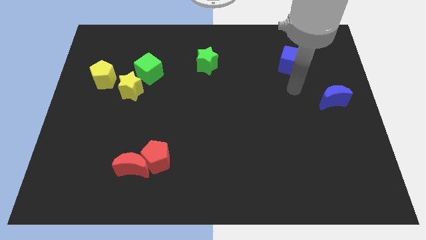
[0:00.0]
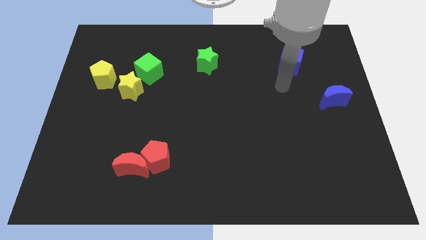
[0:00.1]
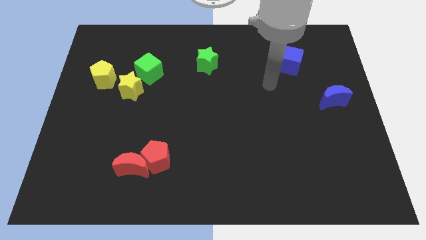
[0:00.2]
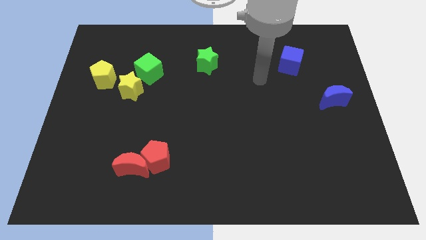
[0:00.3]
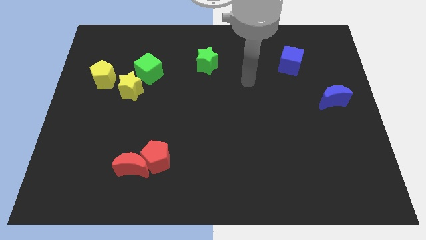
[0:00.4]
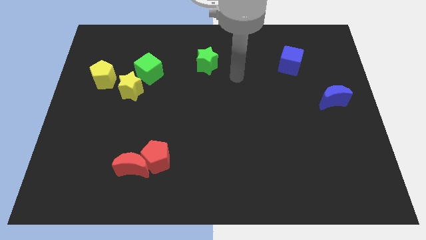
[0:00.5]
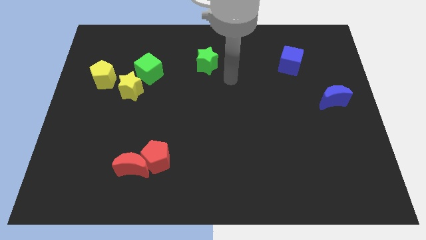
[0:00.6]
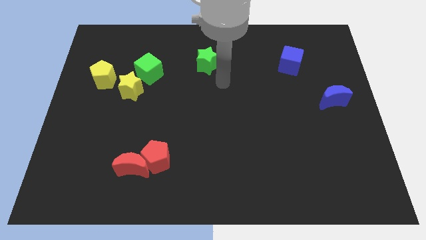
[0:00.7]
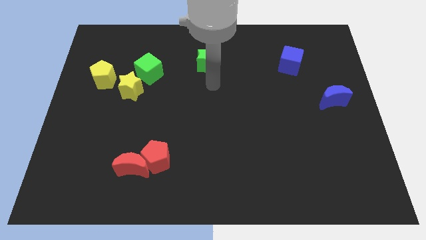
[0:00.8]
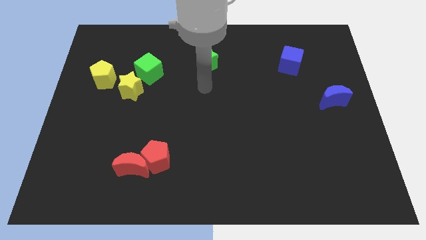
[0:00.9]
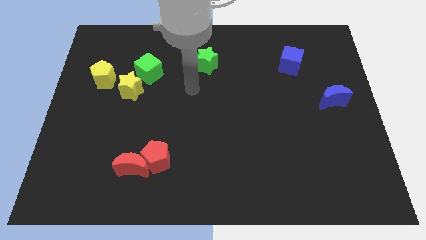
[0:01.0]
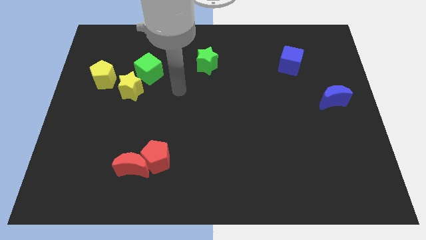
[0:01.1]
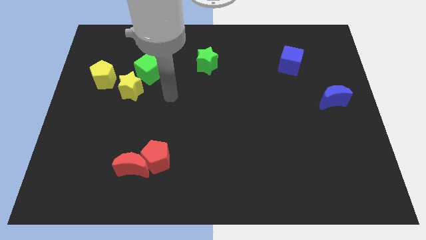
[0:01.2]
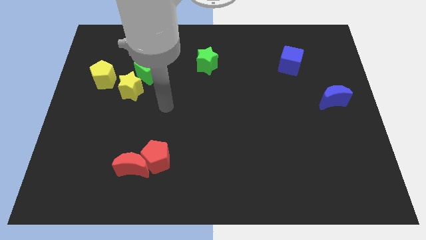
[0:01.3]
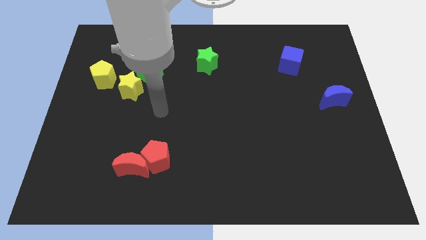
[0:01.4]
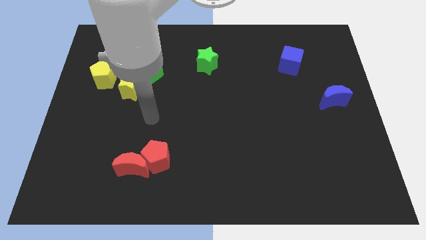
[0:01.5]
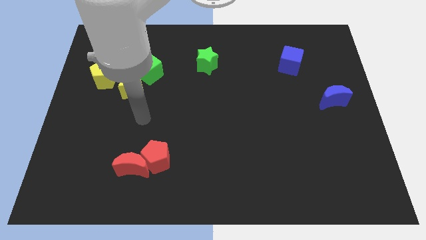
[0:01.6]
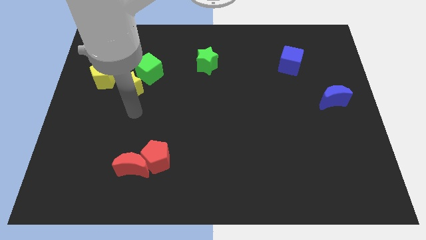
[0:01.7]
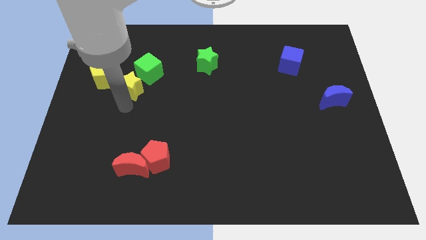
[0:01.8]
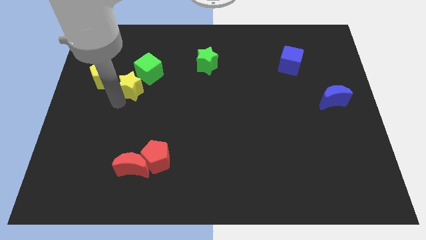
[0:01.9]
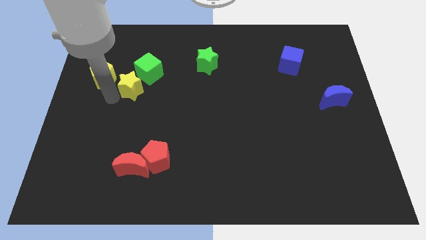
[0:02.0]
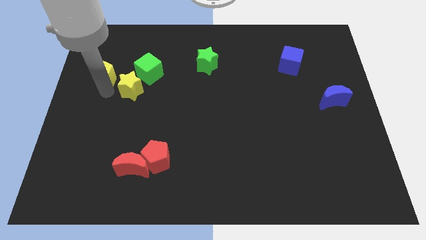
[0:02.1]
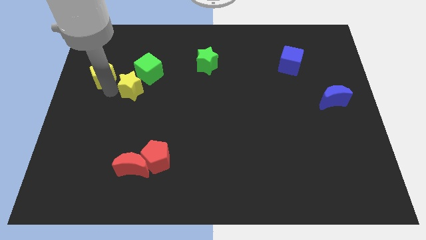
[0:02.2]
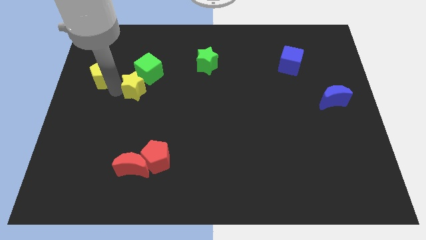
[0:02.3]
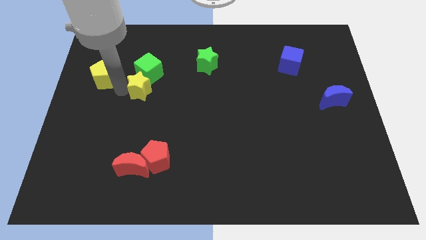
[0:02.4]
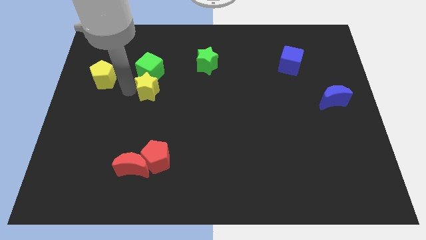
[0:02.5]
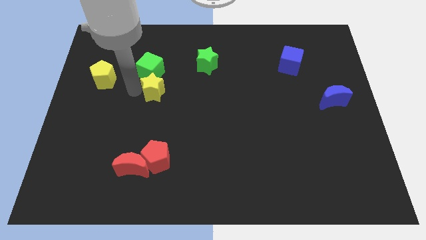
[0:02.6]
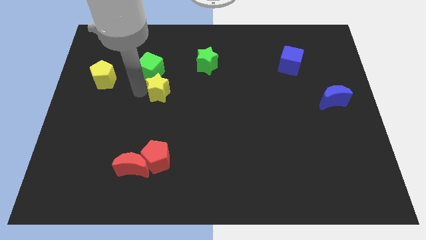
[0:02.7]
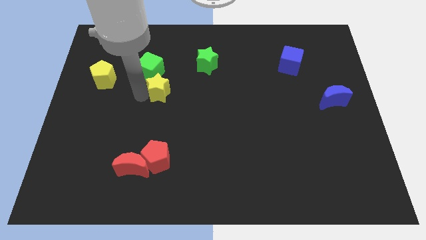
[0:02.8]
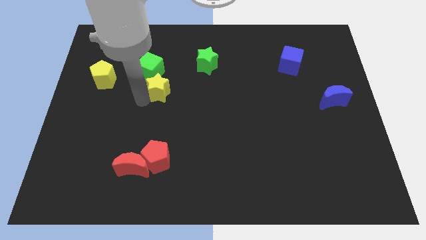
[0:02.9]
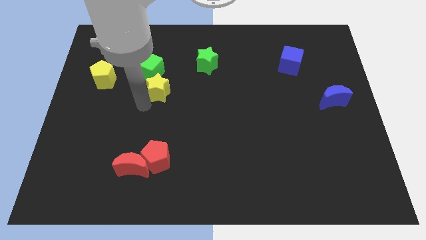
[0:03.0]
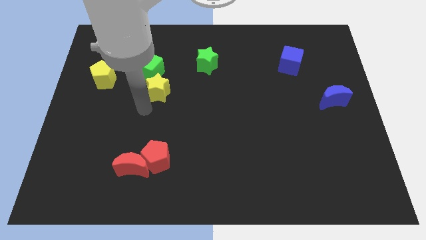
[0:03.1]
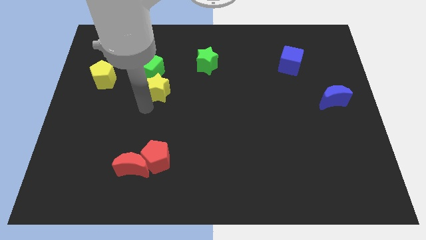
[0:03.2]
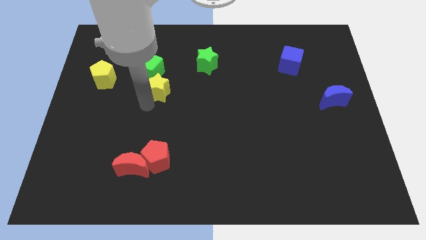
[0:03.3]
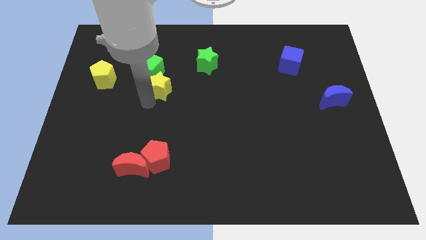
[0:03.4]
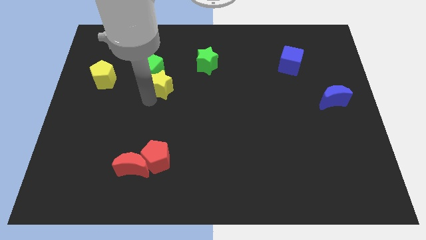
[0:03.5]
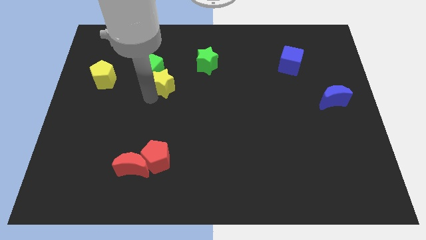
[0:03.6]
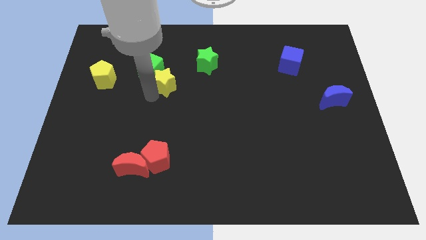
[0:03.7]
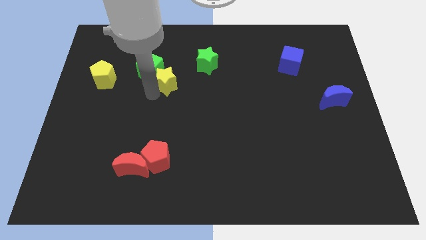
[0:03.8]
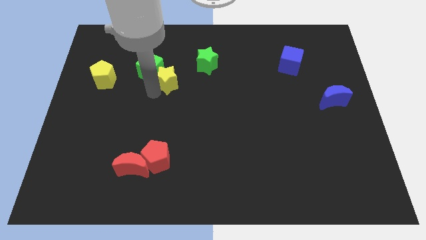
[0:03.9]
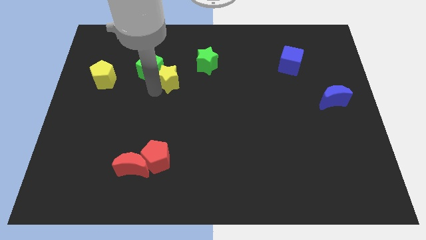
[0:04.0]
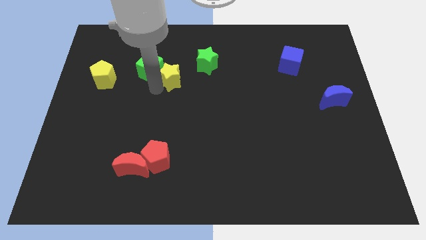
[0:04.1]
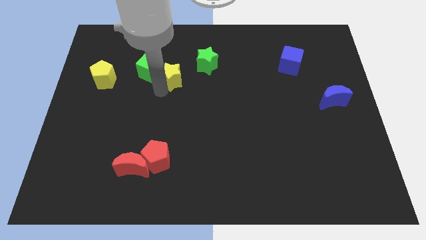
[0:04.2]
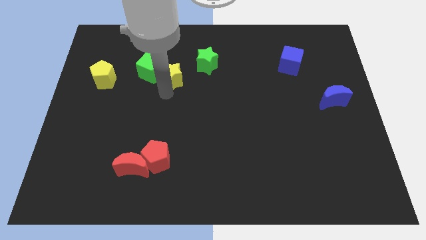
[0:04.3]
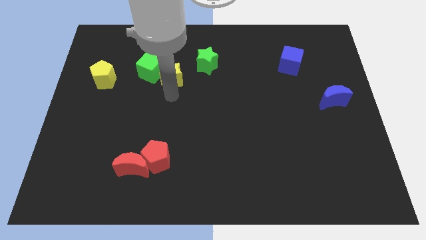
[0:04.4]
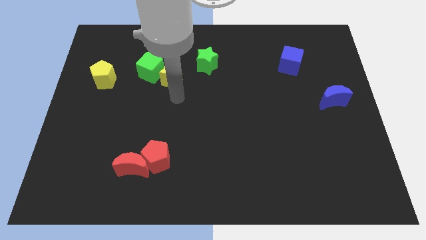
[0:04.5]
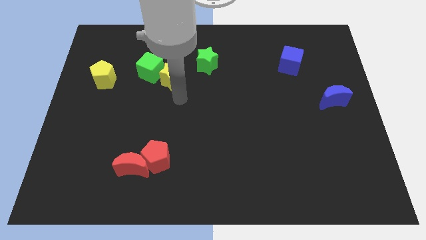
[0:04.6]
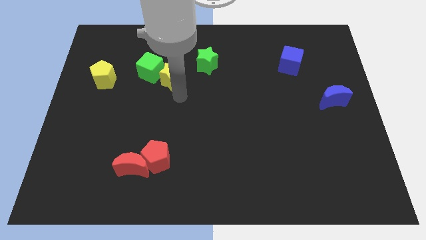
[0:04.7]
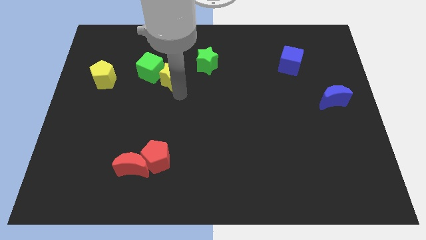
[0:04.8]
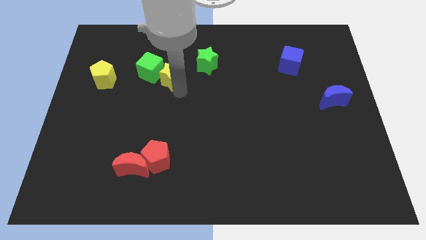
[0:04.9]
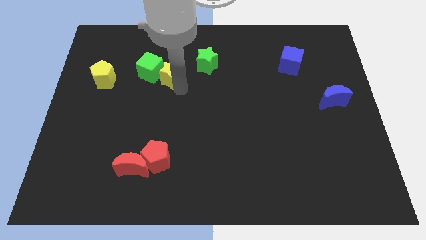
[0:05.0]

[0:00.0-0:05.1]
move the yellow star just left of the green star

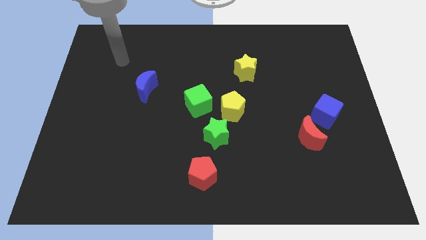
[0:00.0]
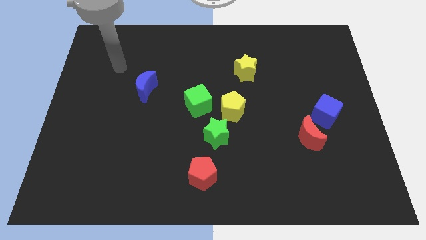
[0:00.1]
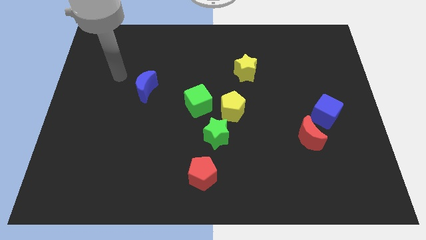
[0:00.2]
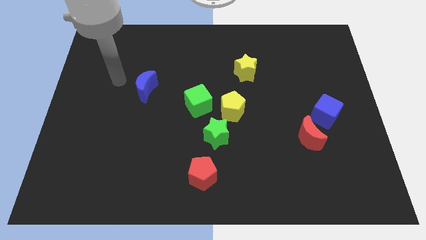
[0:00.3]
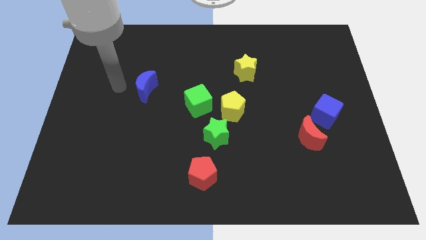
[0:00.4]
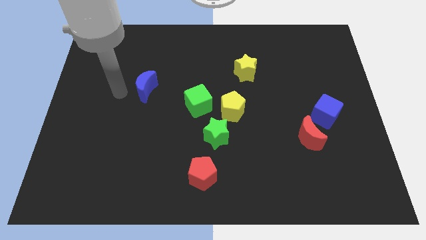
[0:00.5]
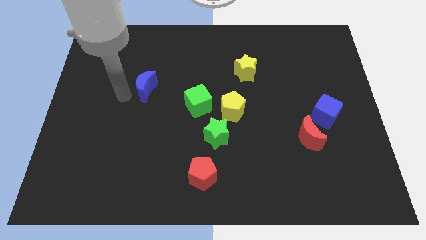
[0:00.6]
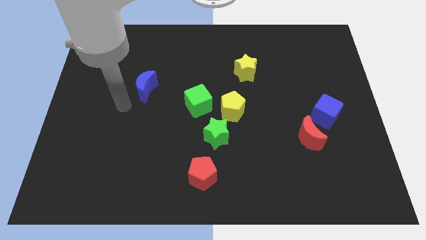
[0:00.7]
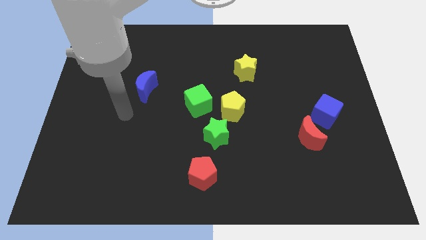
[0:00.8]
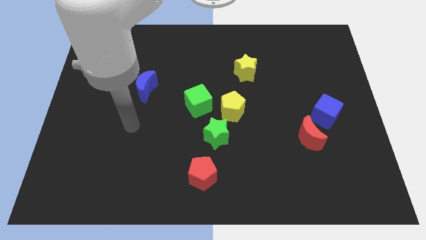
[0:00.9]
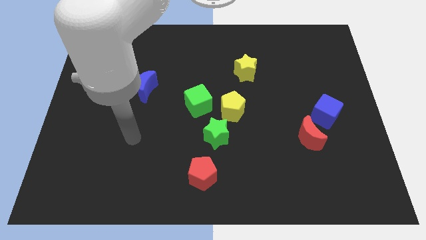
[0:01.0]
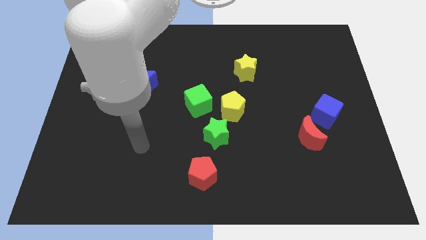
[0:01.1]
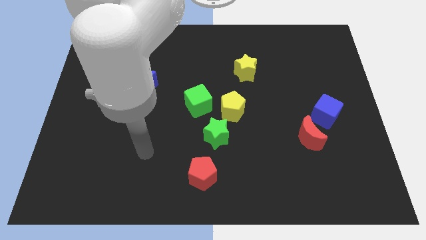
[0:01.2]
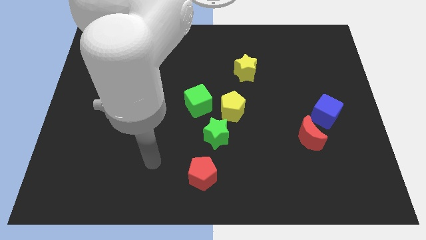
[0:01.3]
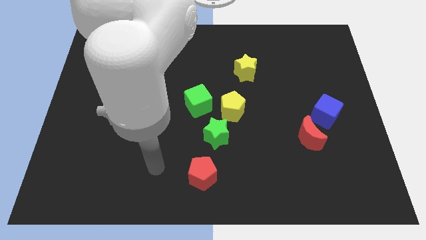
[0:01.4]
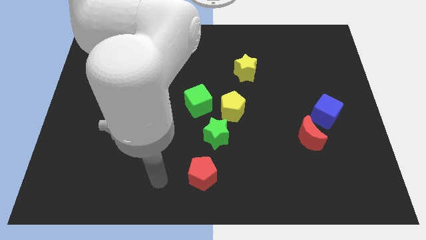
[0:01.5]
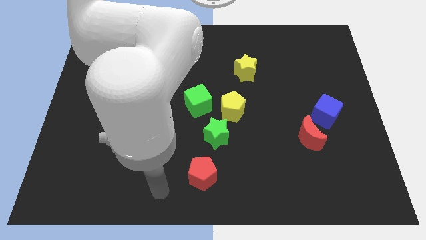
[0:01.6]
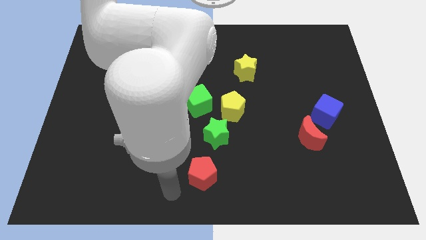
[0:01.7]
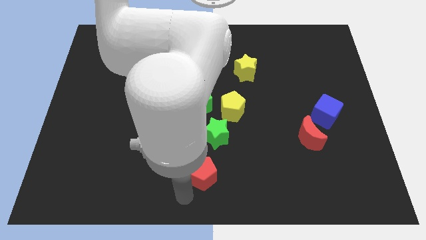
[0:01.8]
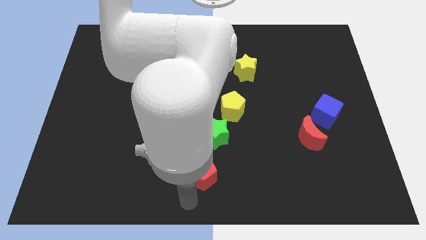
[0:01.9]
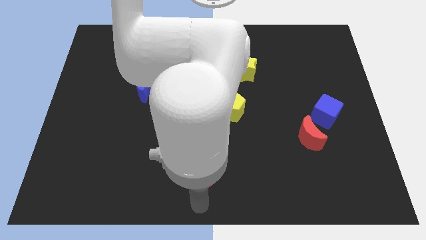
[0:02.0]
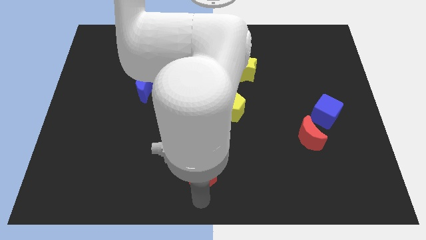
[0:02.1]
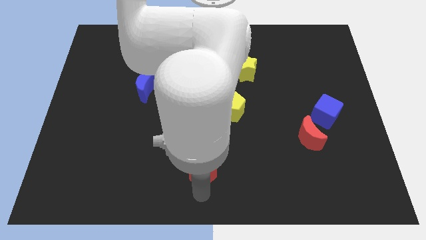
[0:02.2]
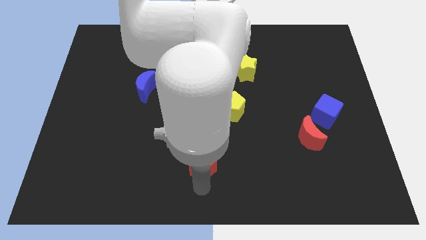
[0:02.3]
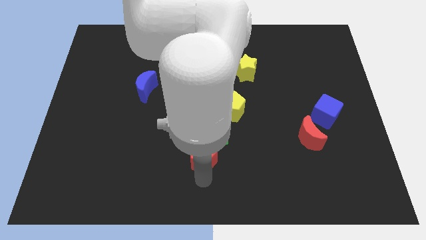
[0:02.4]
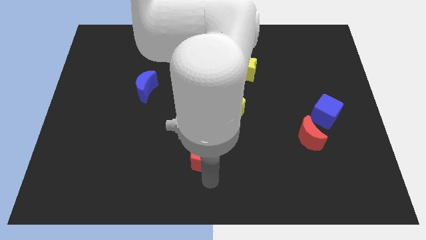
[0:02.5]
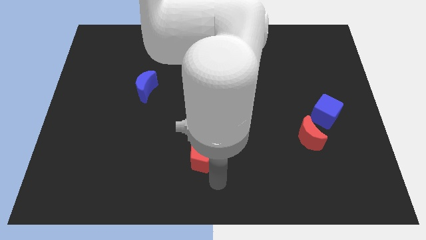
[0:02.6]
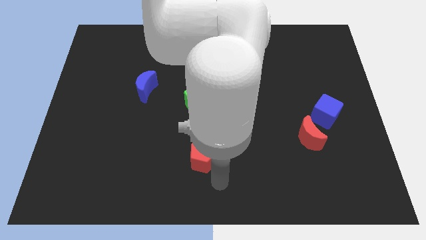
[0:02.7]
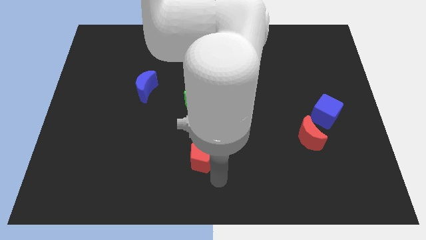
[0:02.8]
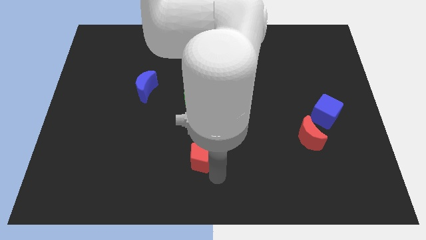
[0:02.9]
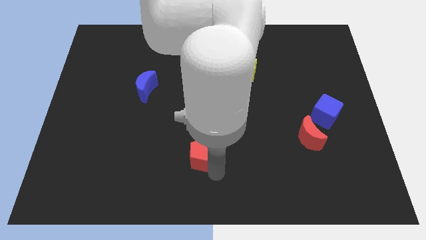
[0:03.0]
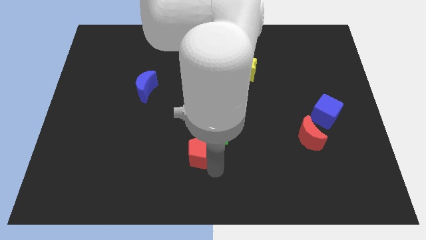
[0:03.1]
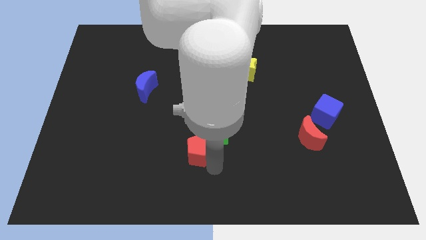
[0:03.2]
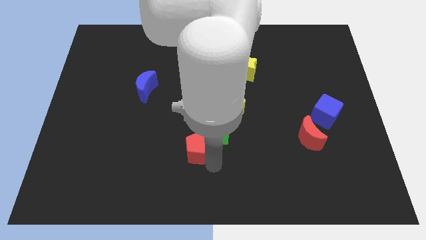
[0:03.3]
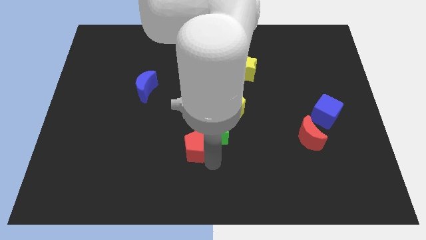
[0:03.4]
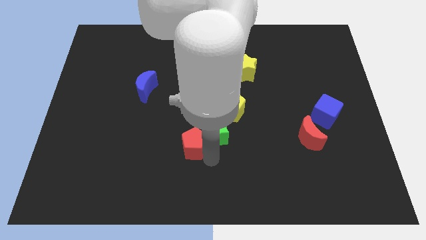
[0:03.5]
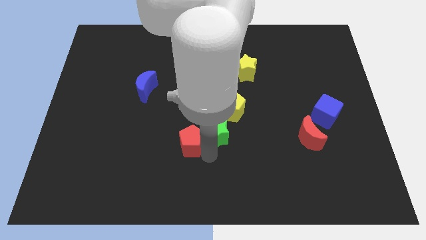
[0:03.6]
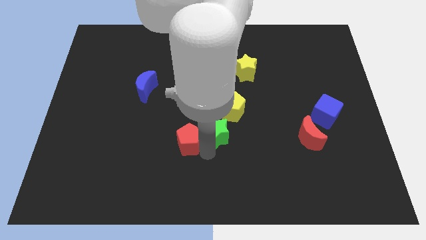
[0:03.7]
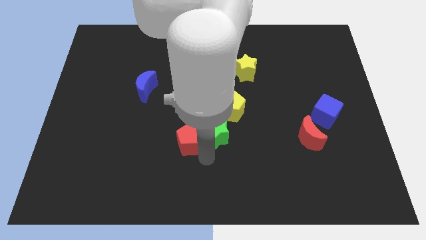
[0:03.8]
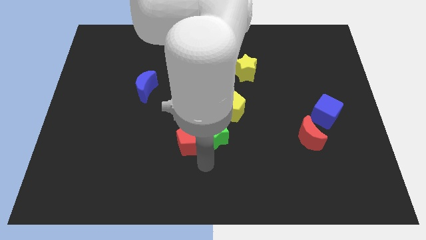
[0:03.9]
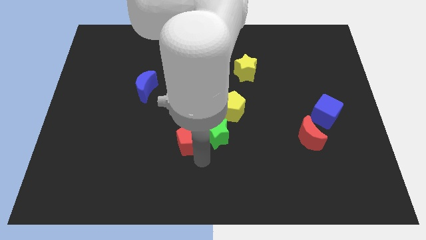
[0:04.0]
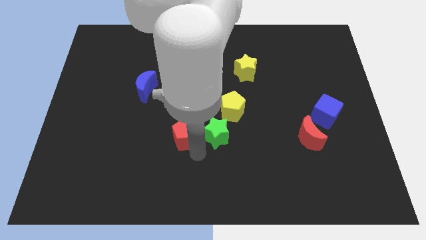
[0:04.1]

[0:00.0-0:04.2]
slide the red pentagon diagonally down and to the left of the green cube
